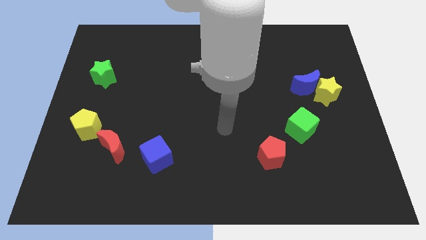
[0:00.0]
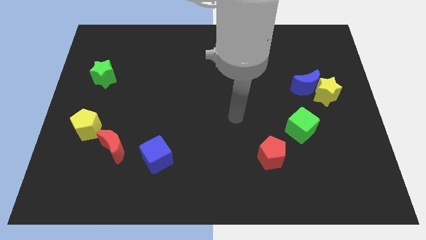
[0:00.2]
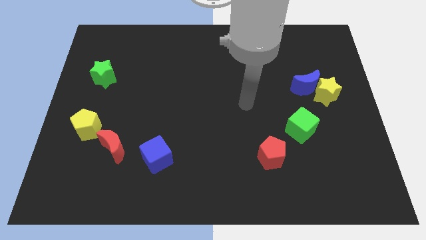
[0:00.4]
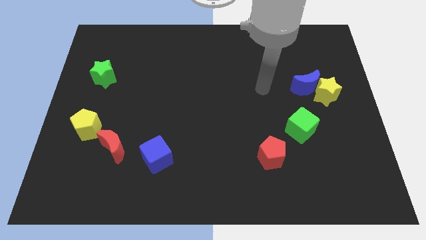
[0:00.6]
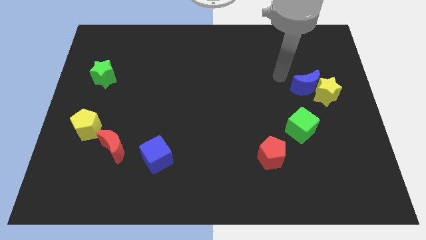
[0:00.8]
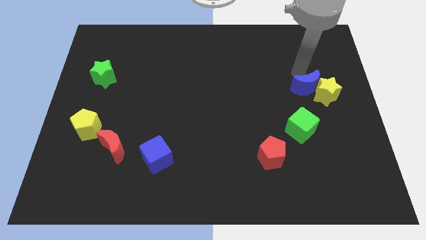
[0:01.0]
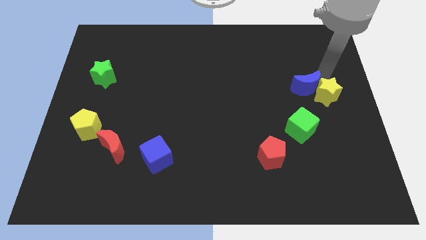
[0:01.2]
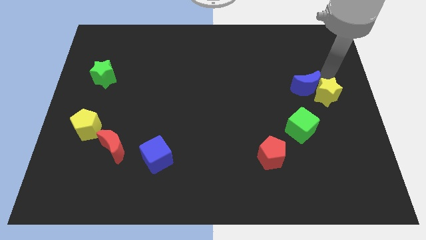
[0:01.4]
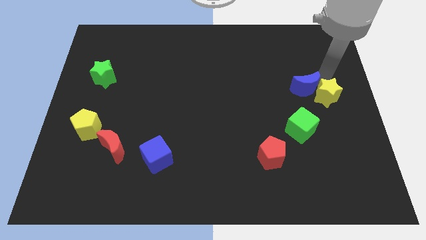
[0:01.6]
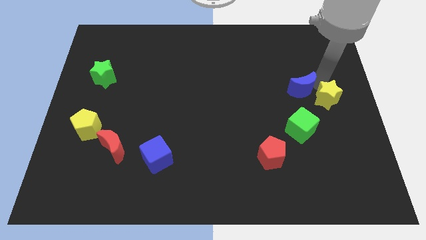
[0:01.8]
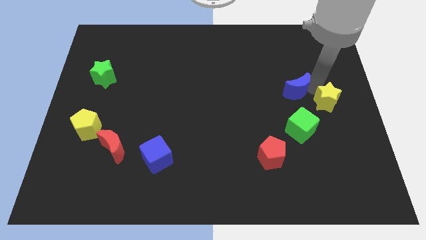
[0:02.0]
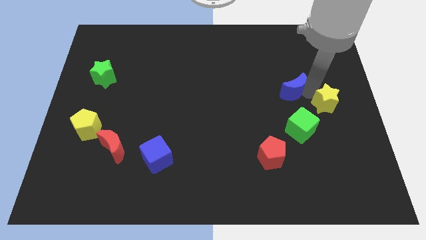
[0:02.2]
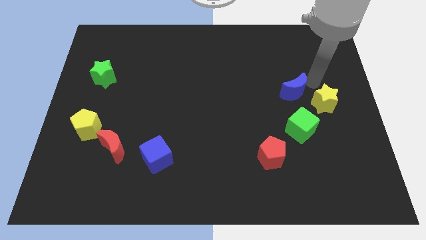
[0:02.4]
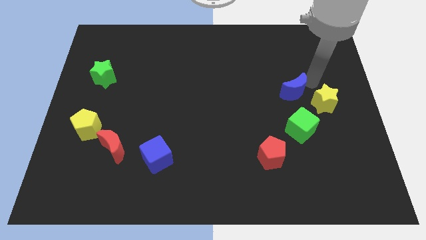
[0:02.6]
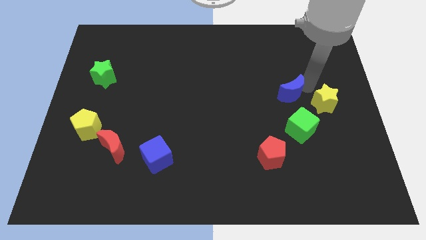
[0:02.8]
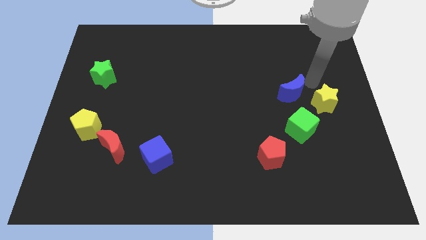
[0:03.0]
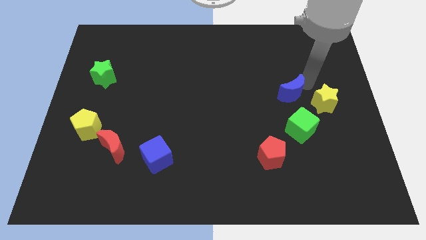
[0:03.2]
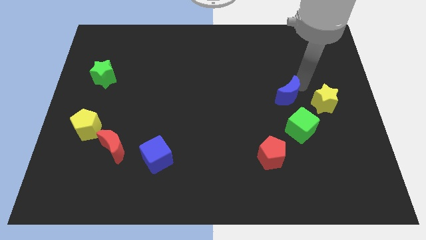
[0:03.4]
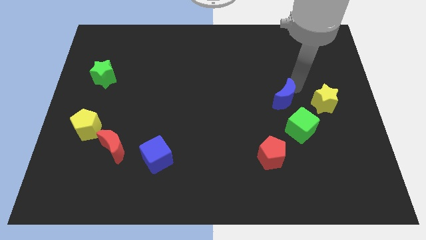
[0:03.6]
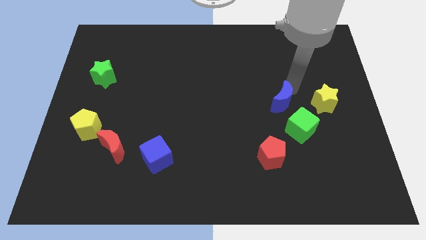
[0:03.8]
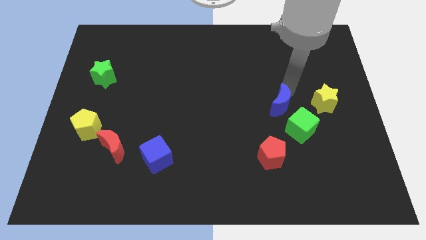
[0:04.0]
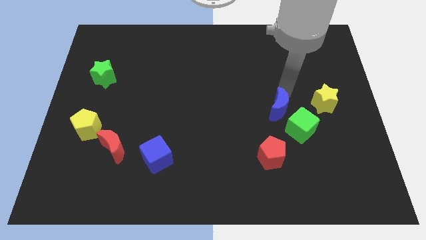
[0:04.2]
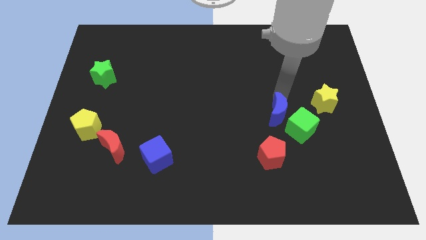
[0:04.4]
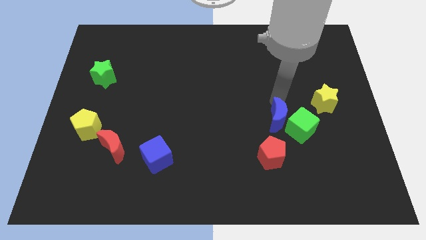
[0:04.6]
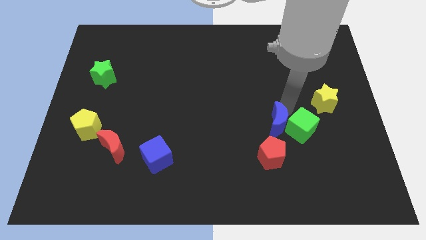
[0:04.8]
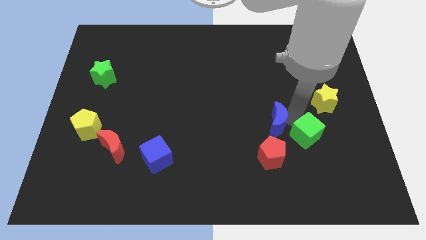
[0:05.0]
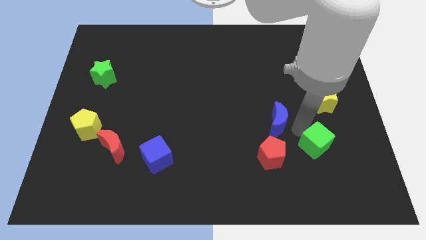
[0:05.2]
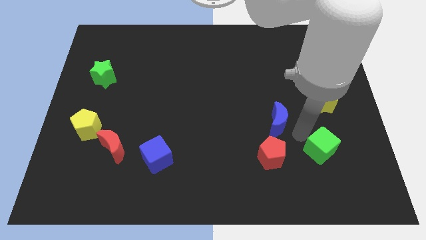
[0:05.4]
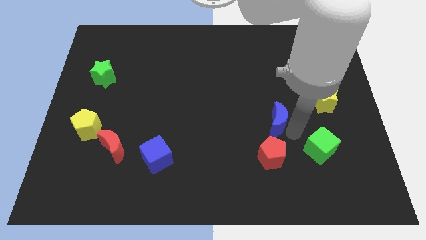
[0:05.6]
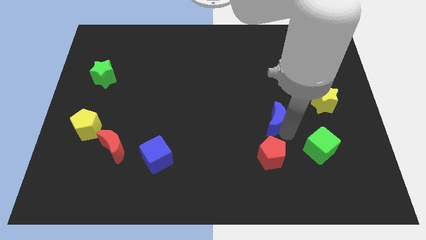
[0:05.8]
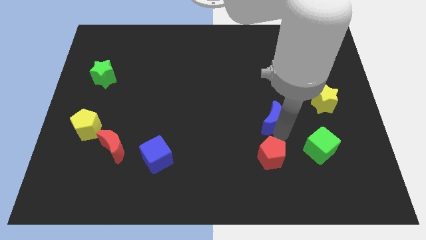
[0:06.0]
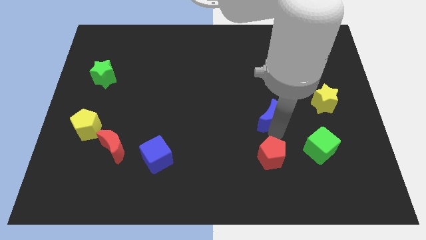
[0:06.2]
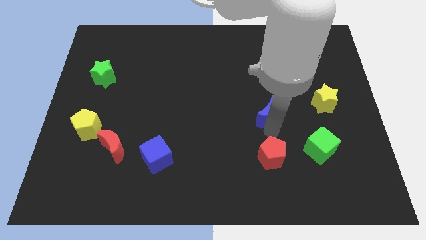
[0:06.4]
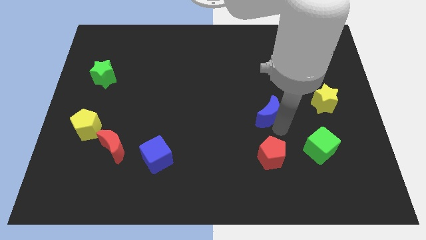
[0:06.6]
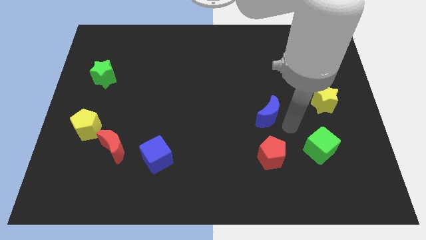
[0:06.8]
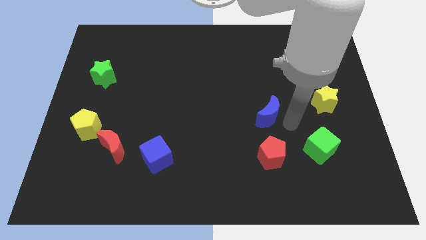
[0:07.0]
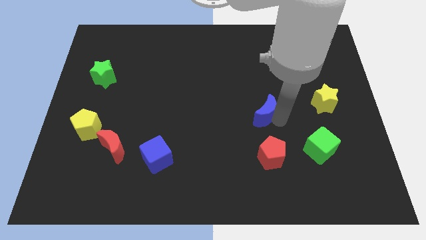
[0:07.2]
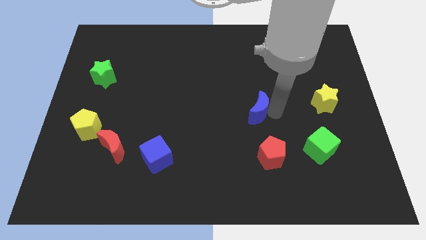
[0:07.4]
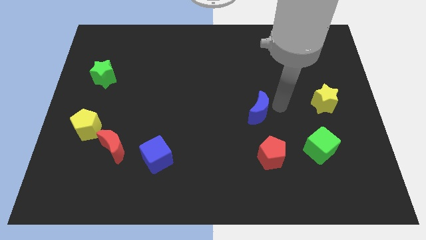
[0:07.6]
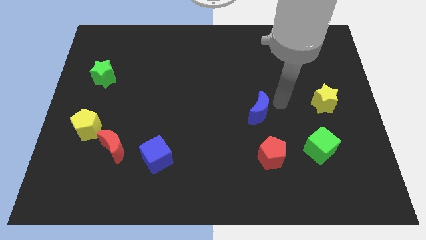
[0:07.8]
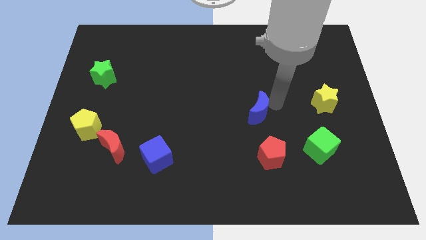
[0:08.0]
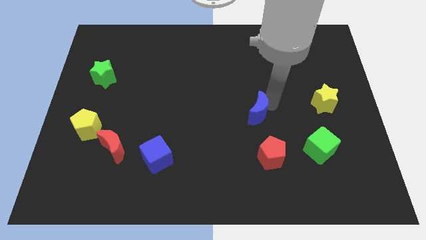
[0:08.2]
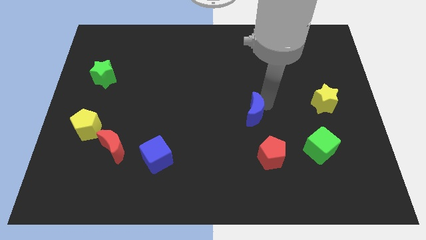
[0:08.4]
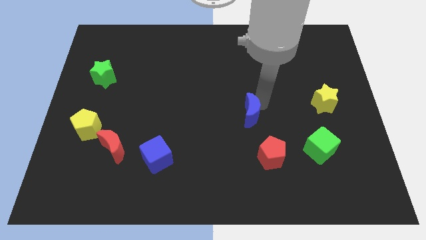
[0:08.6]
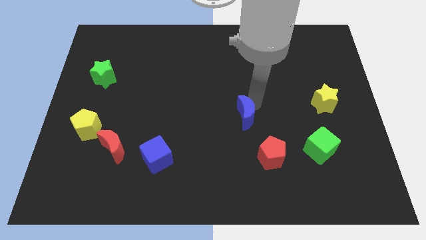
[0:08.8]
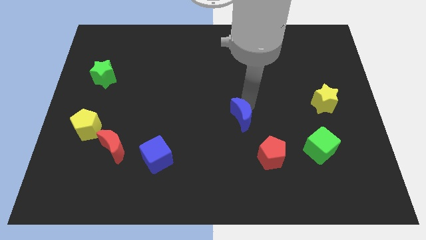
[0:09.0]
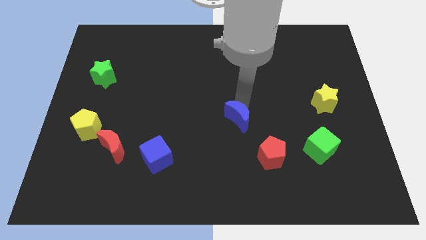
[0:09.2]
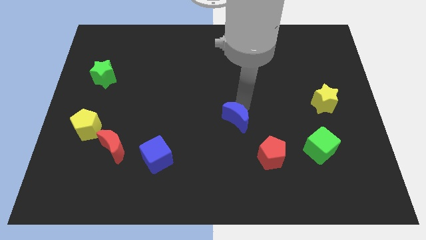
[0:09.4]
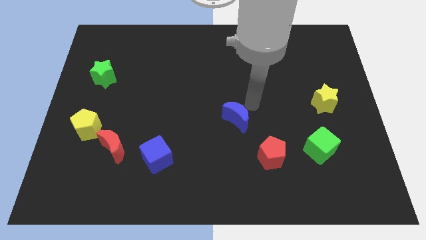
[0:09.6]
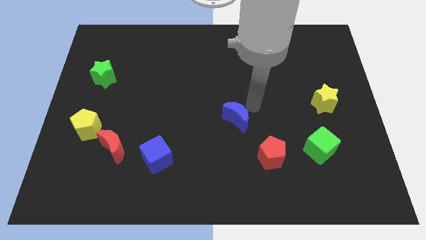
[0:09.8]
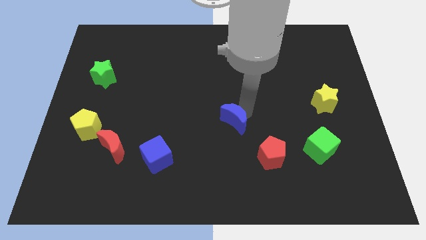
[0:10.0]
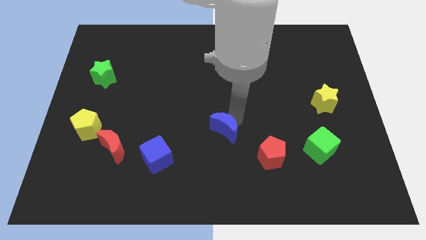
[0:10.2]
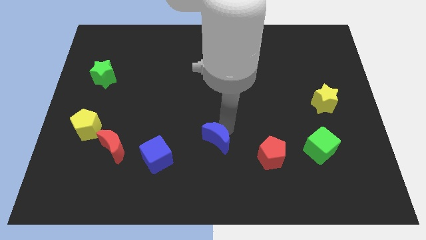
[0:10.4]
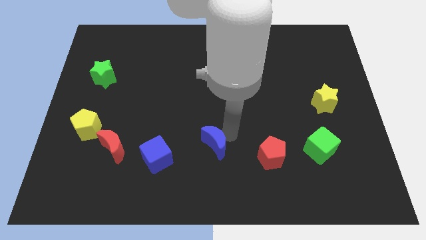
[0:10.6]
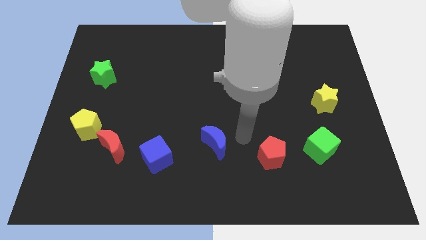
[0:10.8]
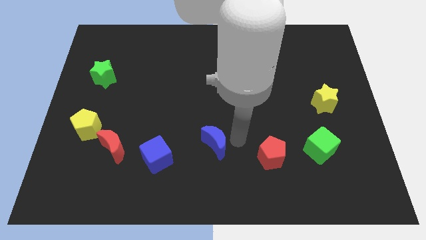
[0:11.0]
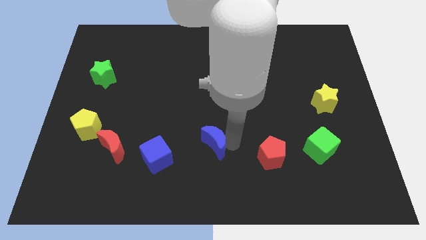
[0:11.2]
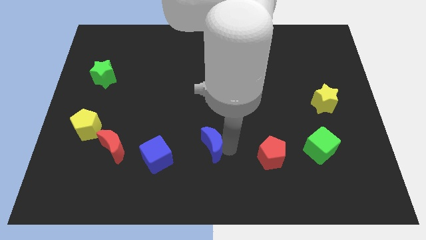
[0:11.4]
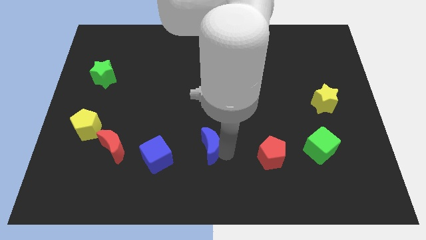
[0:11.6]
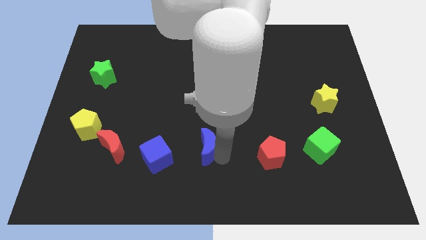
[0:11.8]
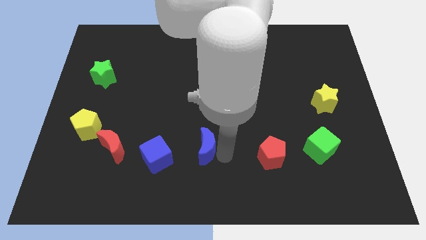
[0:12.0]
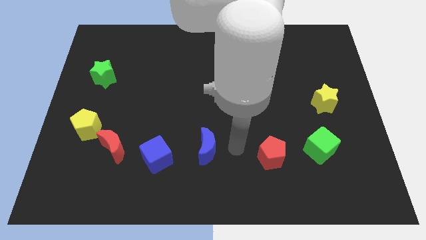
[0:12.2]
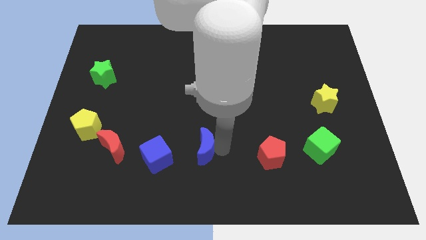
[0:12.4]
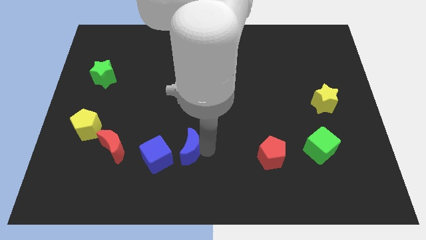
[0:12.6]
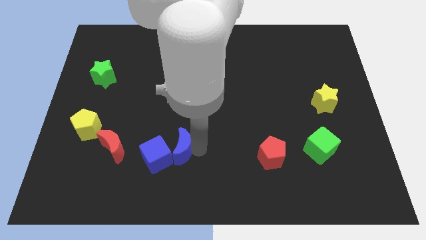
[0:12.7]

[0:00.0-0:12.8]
put the blue moon towards the blue cube

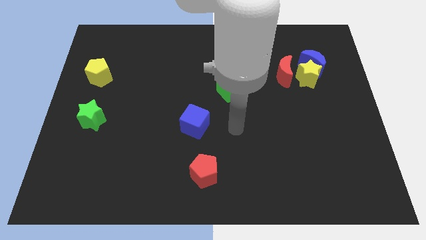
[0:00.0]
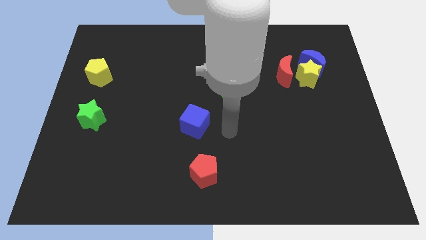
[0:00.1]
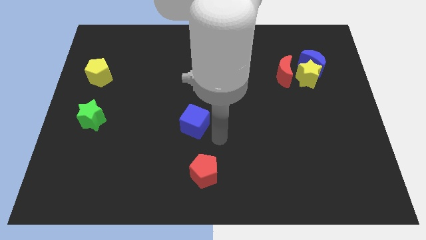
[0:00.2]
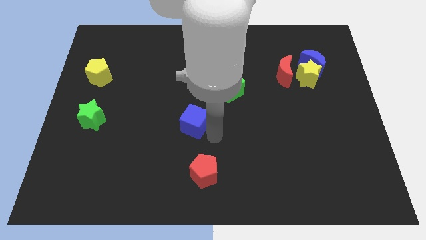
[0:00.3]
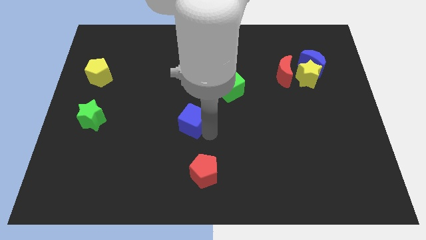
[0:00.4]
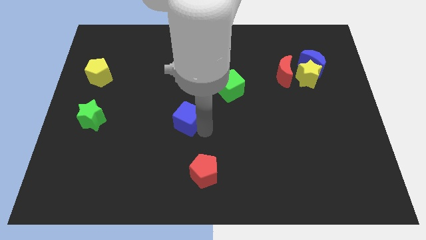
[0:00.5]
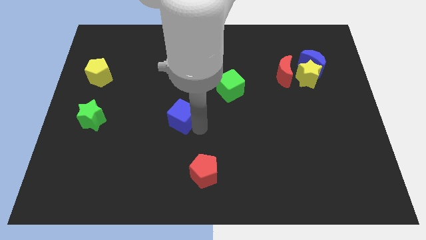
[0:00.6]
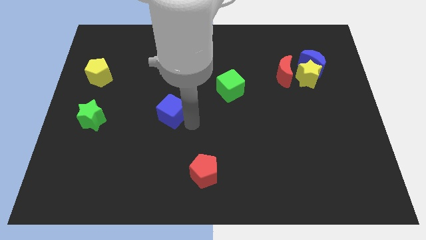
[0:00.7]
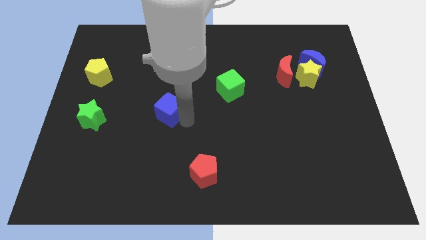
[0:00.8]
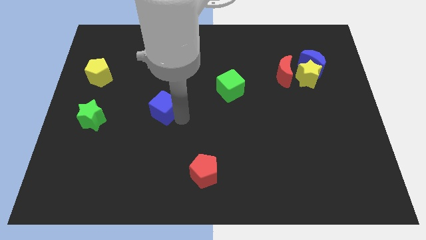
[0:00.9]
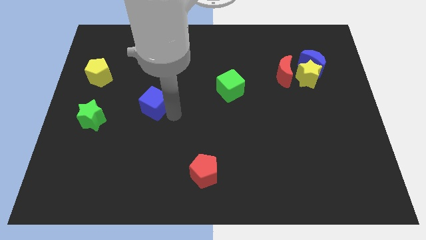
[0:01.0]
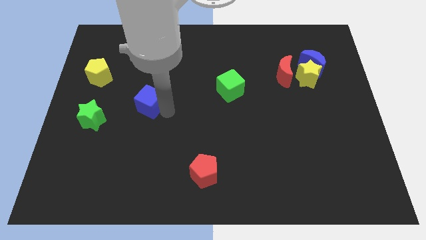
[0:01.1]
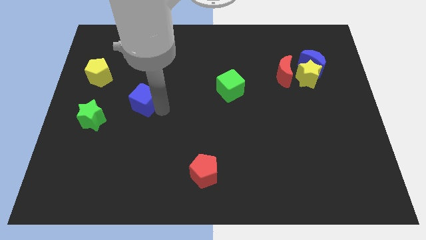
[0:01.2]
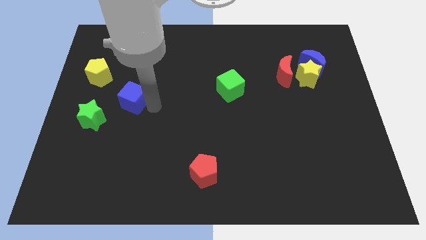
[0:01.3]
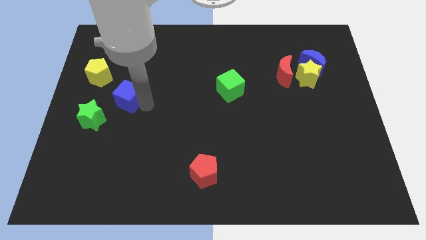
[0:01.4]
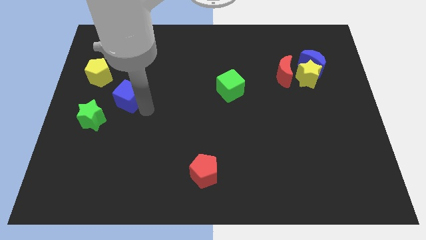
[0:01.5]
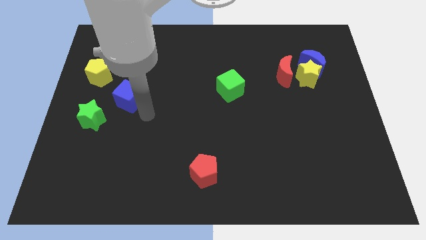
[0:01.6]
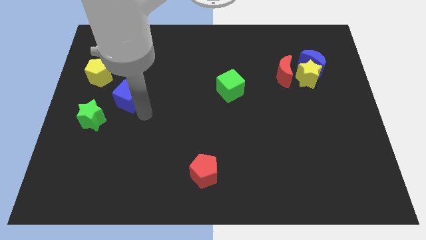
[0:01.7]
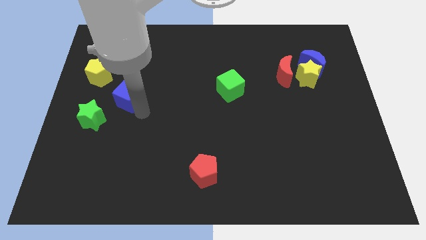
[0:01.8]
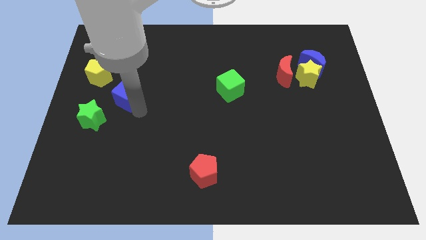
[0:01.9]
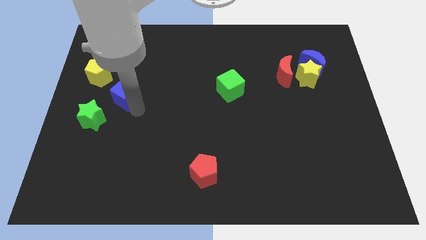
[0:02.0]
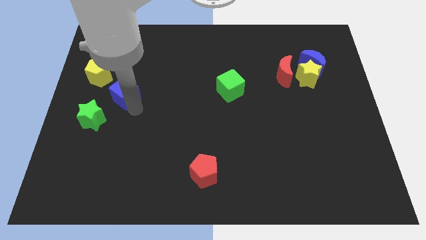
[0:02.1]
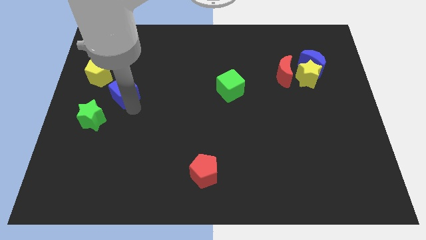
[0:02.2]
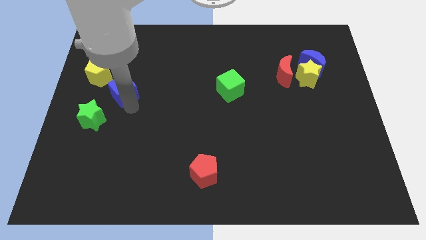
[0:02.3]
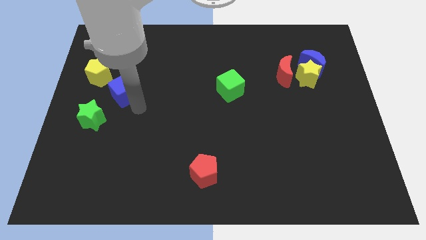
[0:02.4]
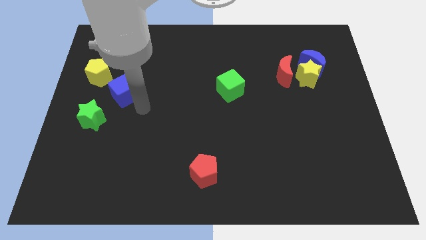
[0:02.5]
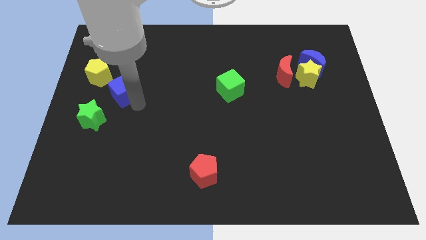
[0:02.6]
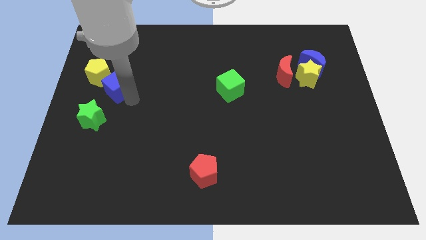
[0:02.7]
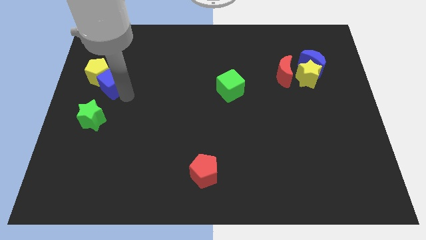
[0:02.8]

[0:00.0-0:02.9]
slide the blue cube next to the yellow pentagon
